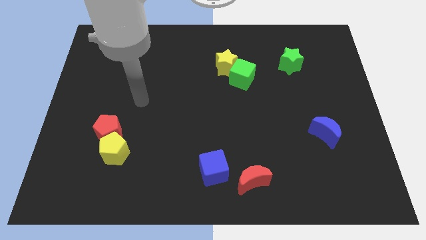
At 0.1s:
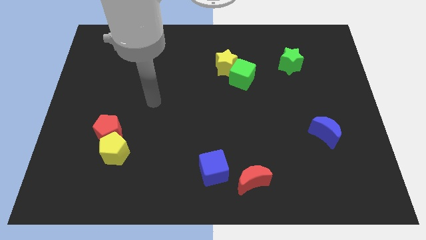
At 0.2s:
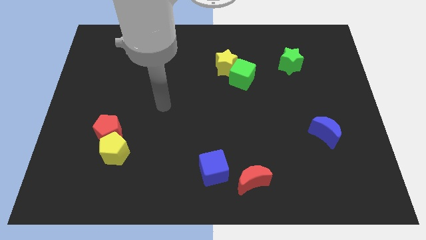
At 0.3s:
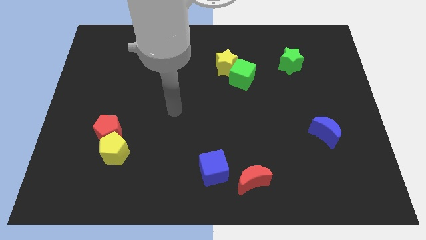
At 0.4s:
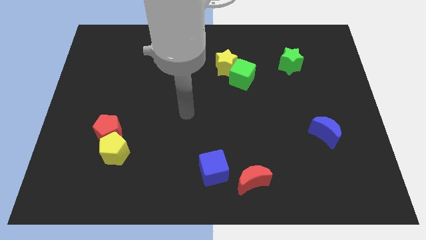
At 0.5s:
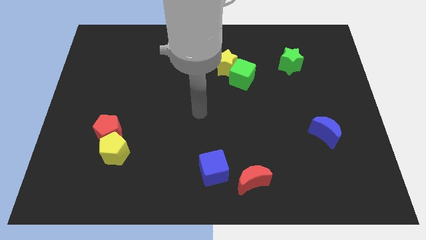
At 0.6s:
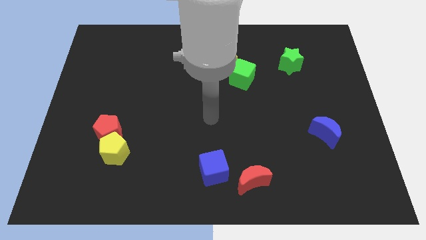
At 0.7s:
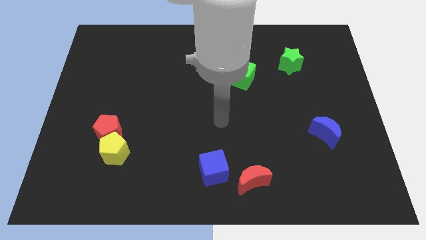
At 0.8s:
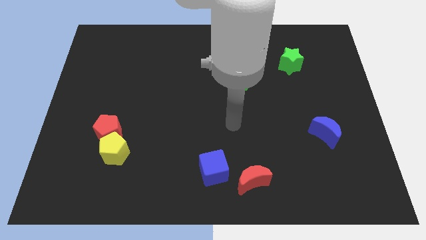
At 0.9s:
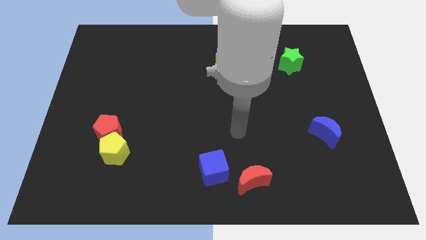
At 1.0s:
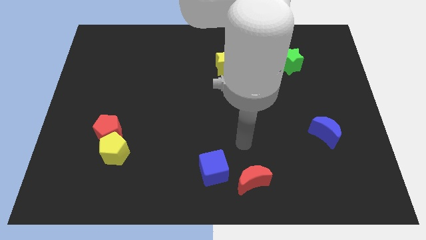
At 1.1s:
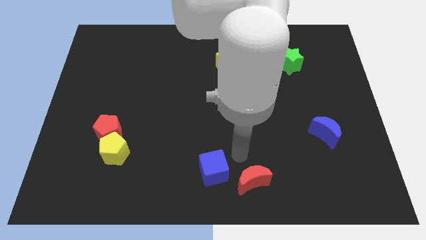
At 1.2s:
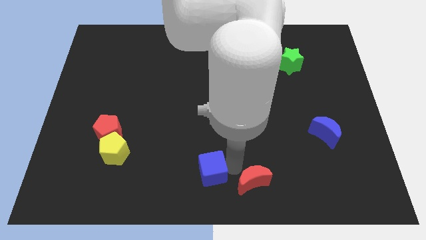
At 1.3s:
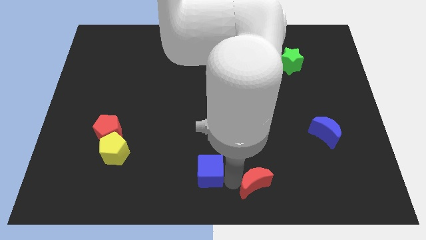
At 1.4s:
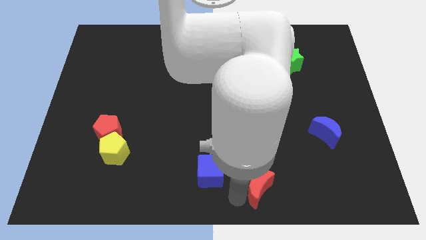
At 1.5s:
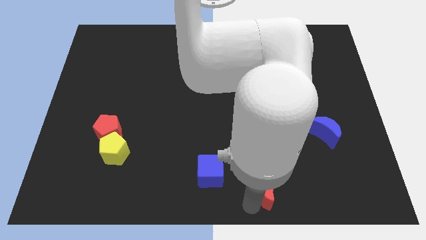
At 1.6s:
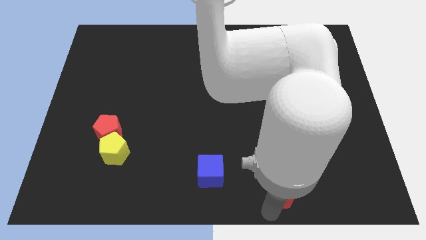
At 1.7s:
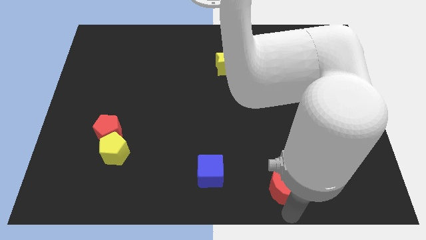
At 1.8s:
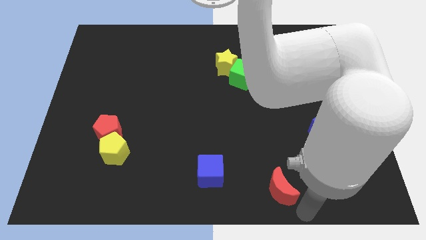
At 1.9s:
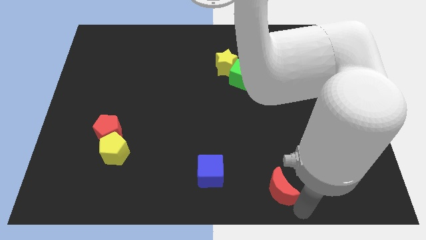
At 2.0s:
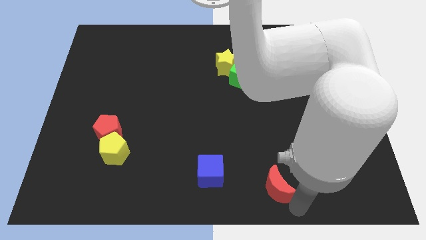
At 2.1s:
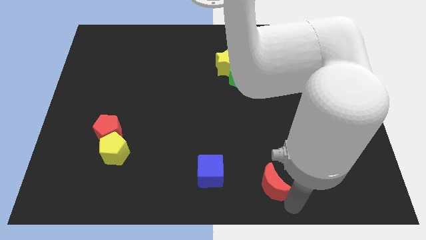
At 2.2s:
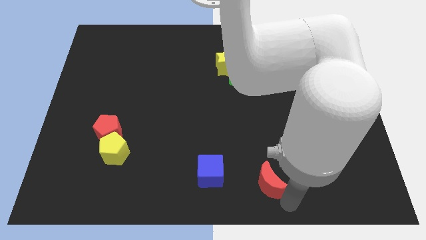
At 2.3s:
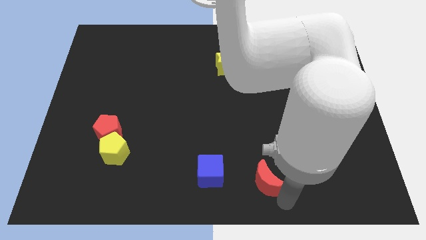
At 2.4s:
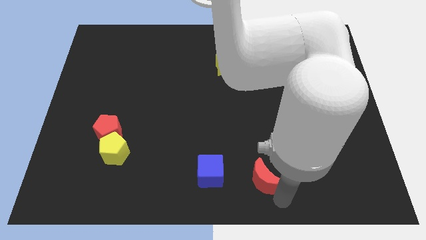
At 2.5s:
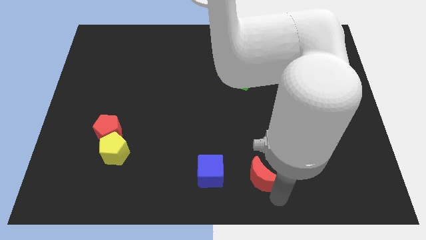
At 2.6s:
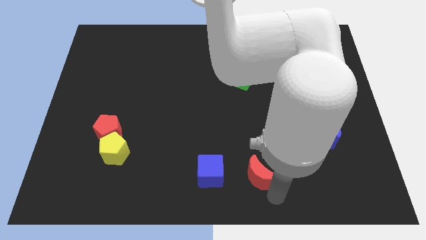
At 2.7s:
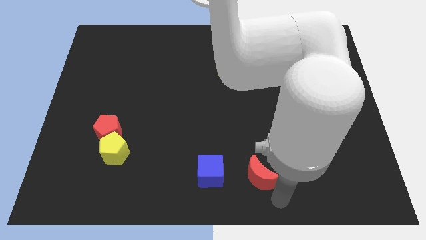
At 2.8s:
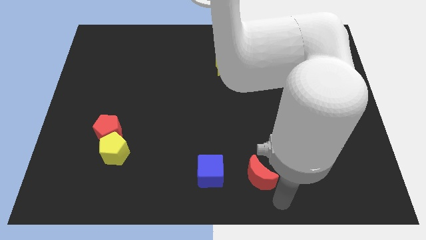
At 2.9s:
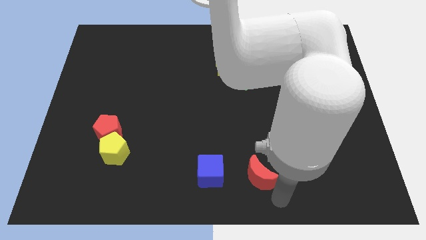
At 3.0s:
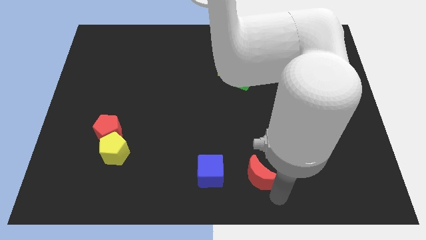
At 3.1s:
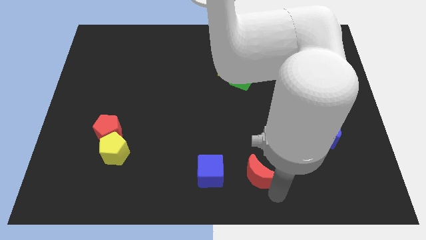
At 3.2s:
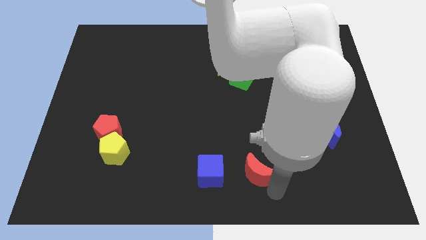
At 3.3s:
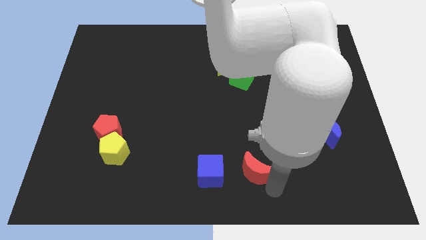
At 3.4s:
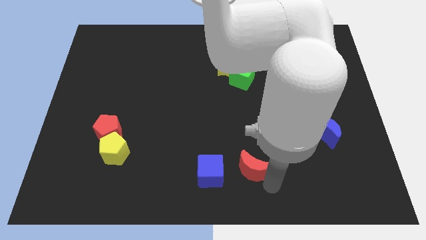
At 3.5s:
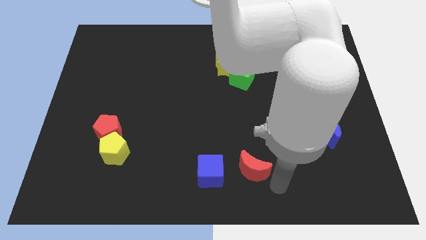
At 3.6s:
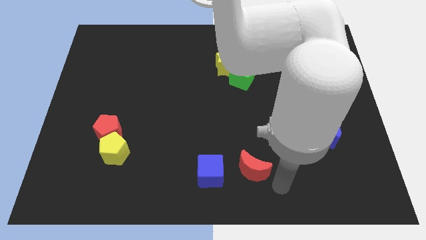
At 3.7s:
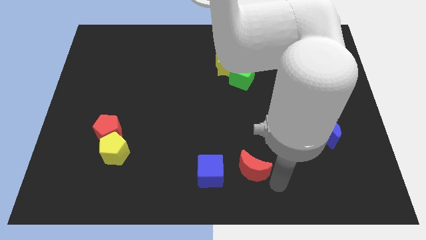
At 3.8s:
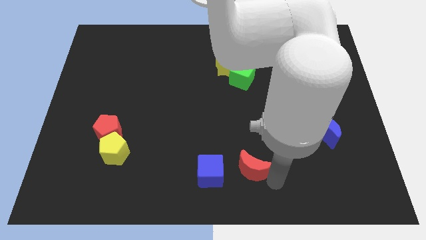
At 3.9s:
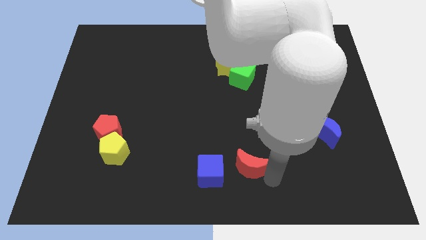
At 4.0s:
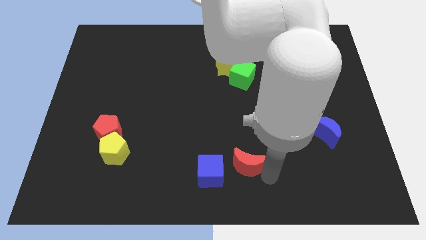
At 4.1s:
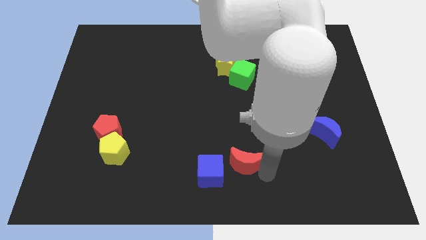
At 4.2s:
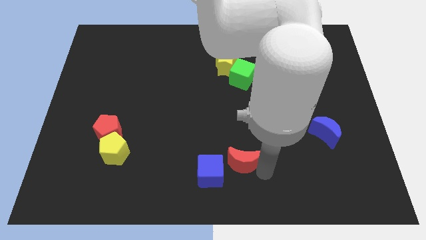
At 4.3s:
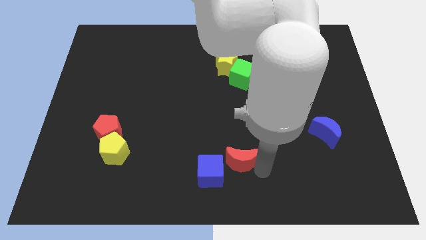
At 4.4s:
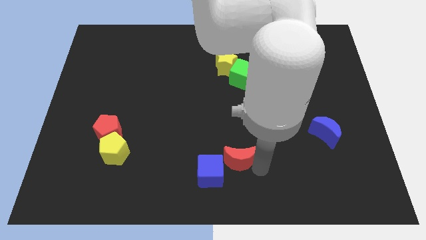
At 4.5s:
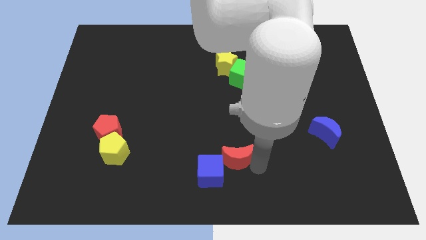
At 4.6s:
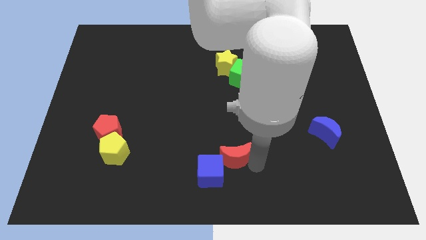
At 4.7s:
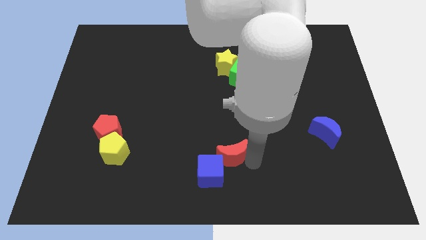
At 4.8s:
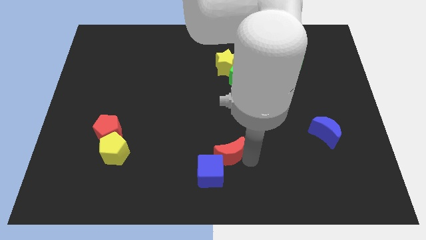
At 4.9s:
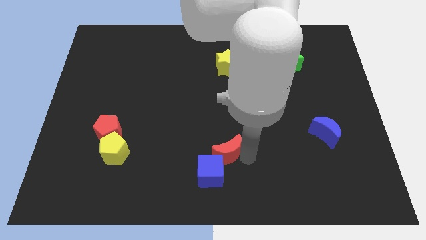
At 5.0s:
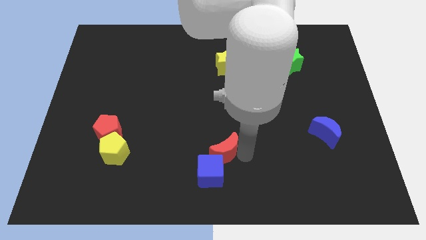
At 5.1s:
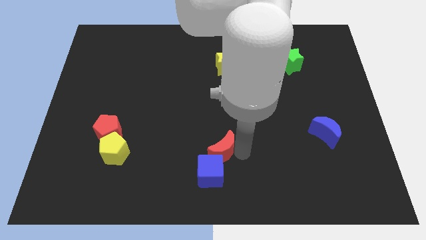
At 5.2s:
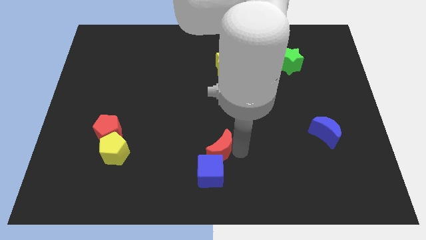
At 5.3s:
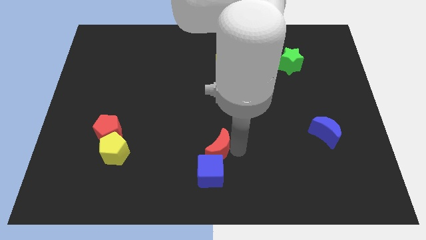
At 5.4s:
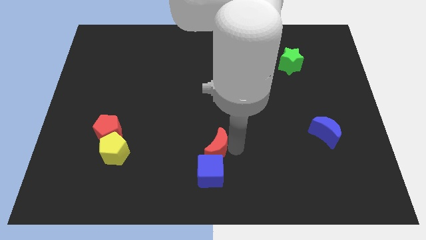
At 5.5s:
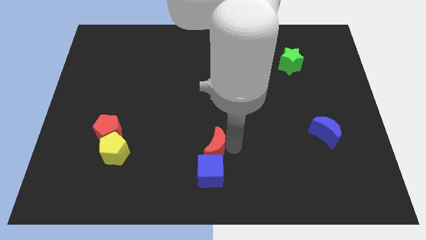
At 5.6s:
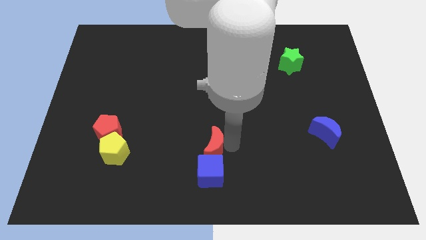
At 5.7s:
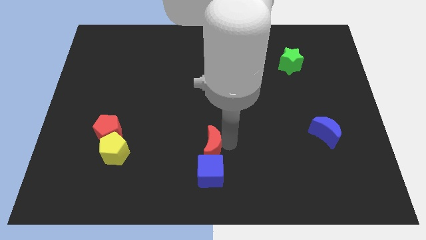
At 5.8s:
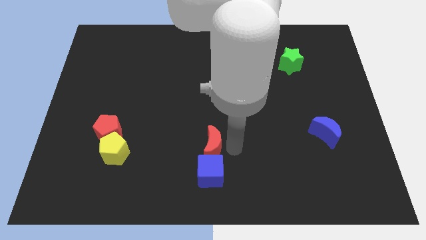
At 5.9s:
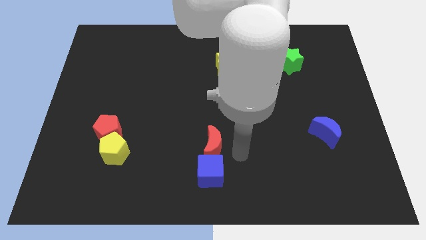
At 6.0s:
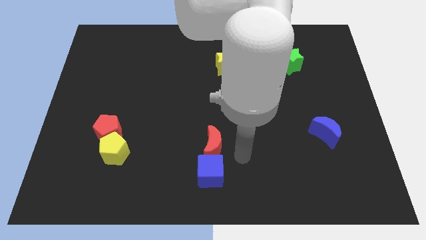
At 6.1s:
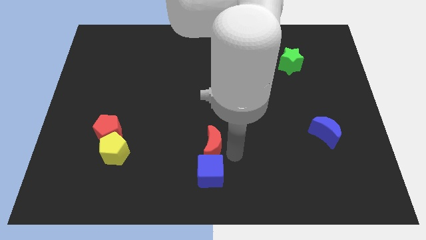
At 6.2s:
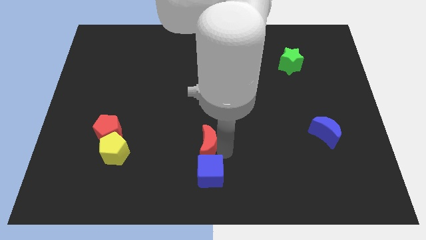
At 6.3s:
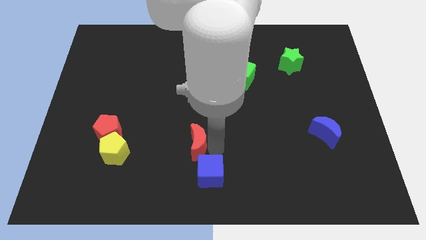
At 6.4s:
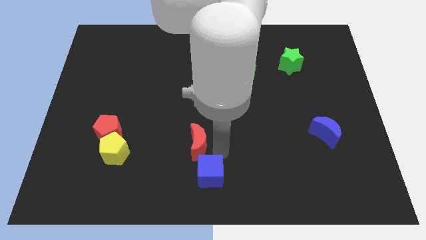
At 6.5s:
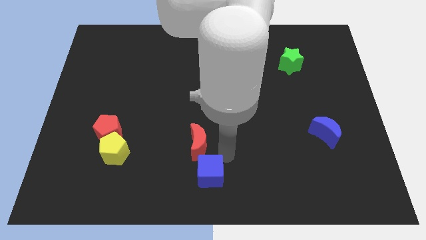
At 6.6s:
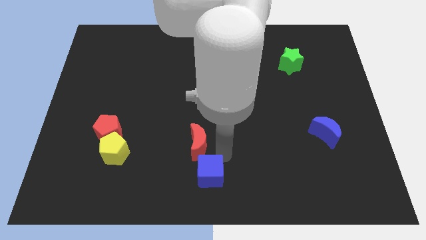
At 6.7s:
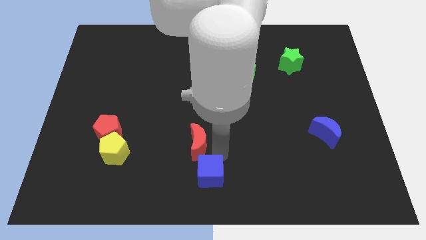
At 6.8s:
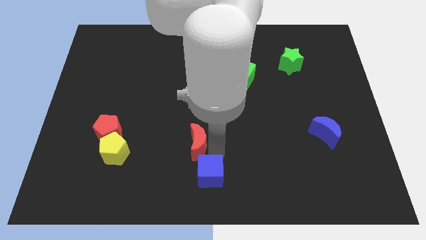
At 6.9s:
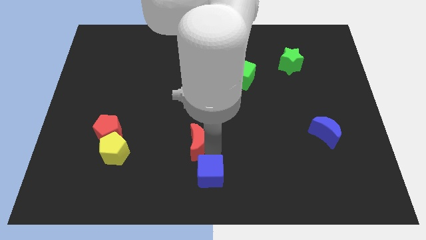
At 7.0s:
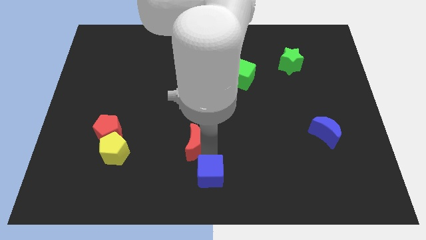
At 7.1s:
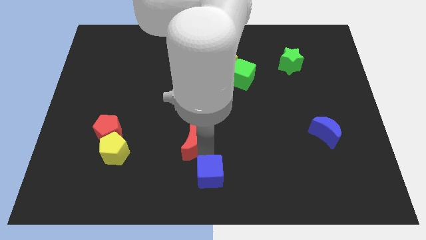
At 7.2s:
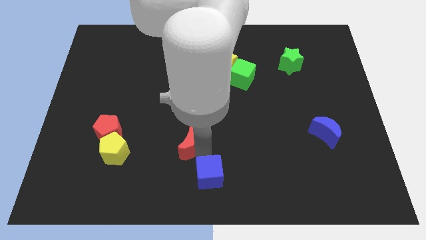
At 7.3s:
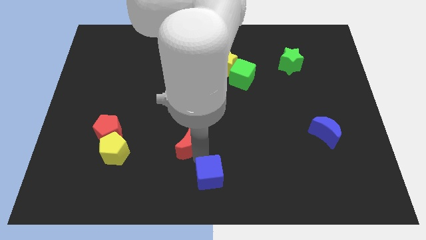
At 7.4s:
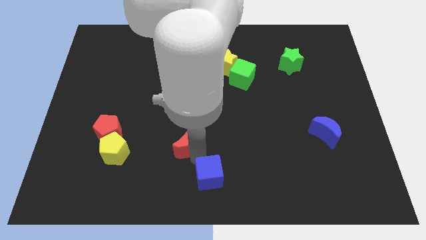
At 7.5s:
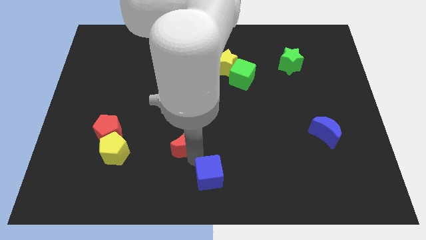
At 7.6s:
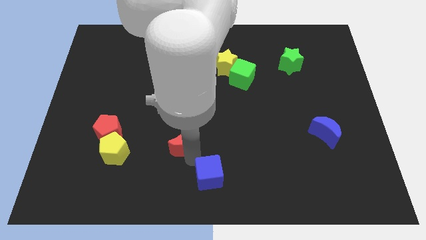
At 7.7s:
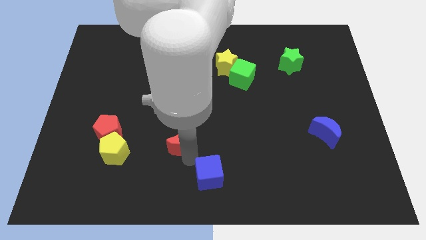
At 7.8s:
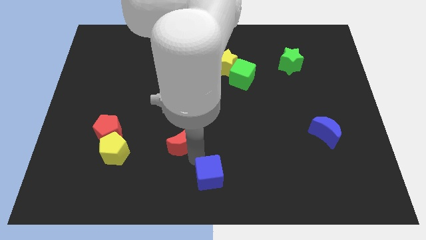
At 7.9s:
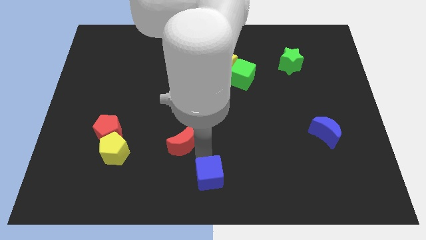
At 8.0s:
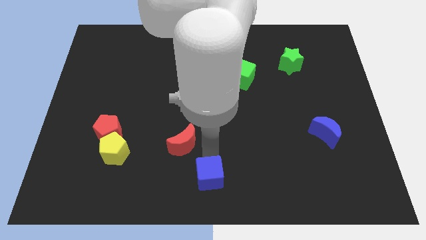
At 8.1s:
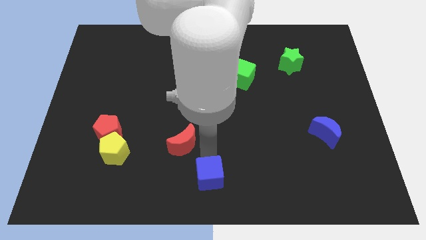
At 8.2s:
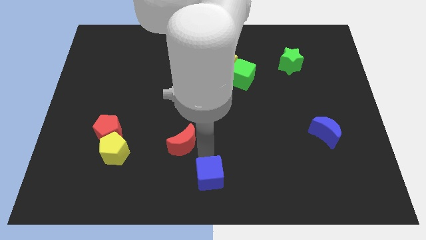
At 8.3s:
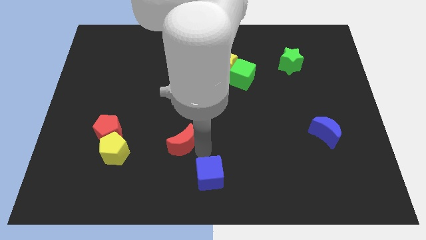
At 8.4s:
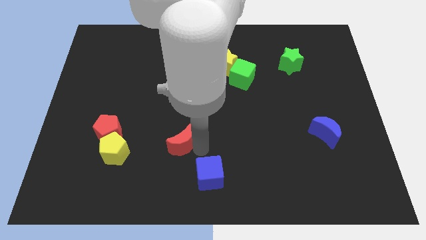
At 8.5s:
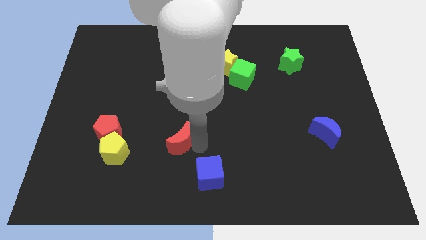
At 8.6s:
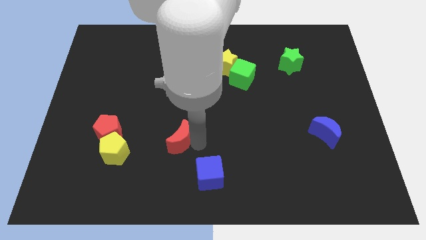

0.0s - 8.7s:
move the red moon to the right of the red pentagon
